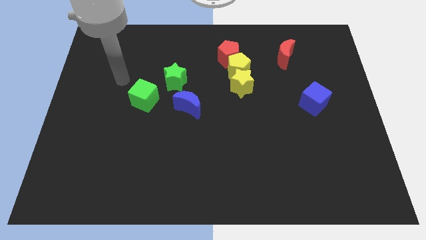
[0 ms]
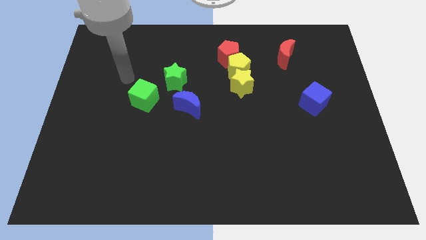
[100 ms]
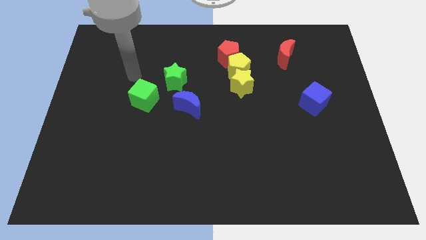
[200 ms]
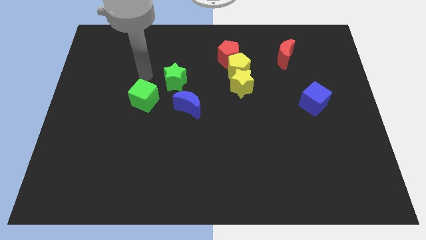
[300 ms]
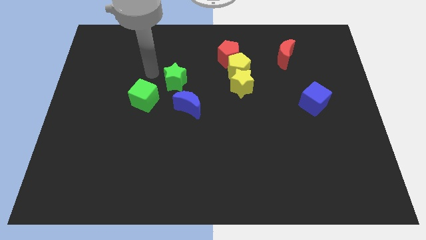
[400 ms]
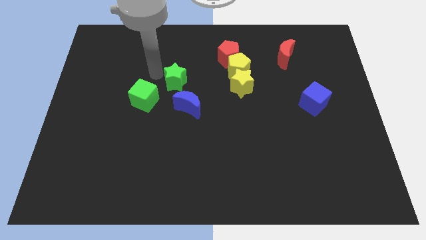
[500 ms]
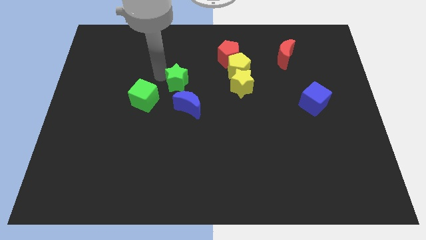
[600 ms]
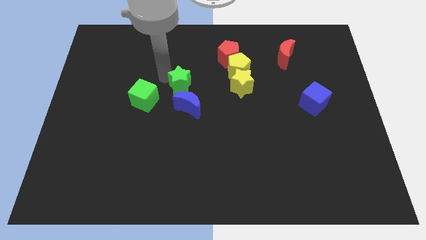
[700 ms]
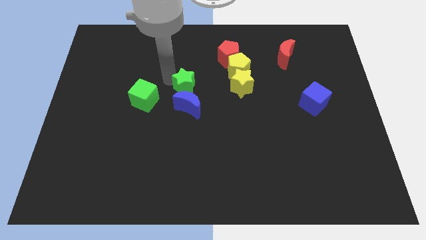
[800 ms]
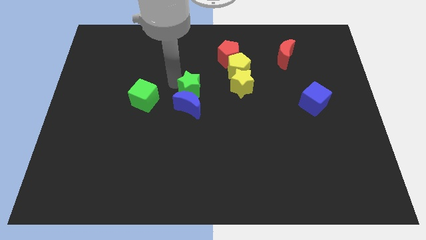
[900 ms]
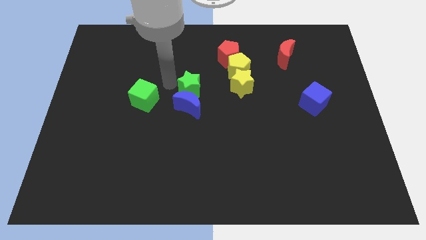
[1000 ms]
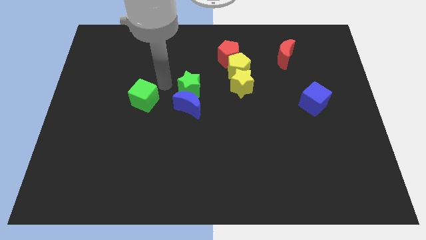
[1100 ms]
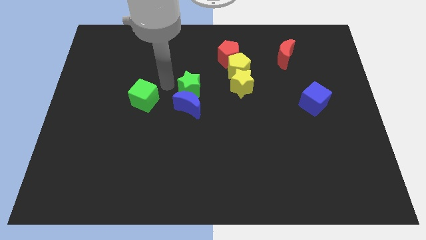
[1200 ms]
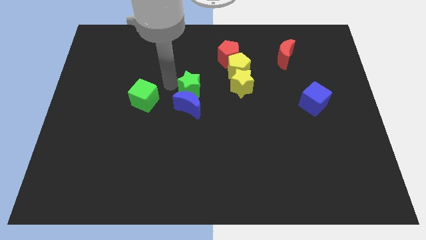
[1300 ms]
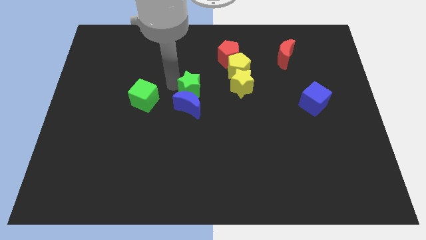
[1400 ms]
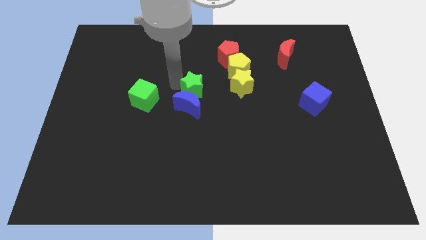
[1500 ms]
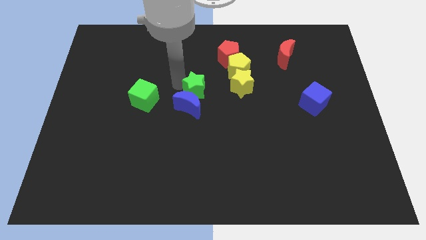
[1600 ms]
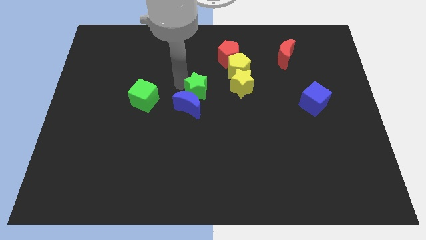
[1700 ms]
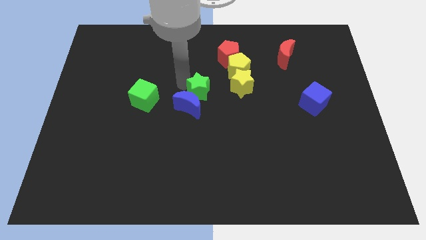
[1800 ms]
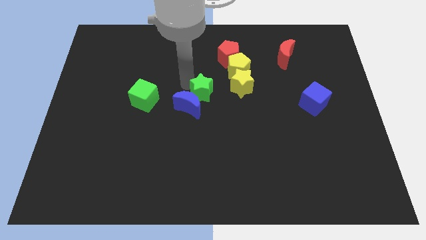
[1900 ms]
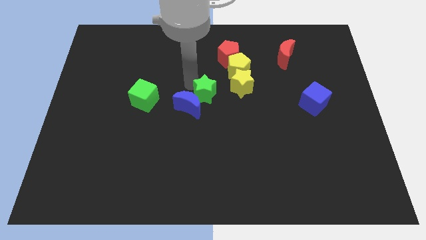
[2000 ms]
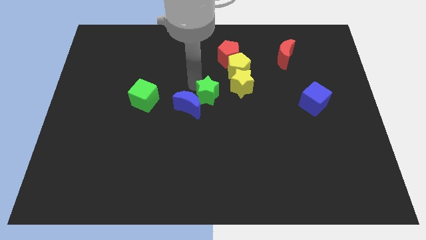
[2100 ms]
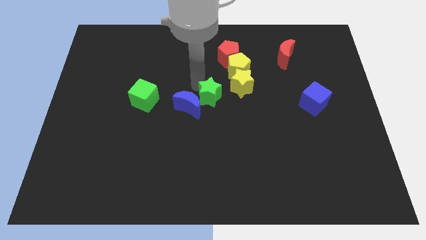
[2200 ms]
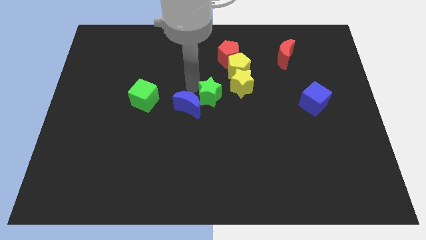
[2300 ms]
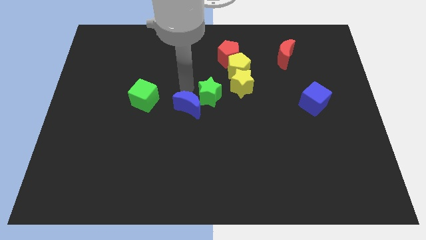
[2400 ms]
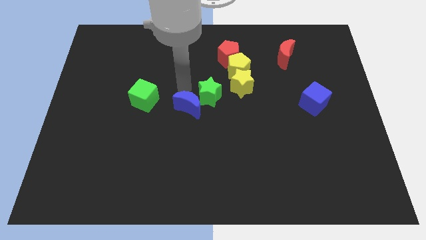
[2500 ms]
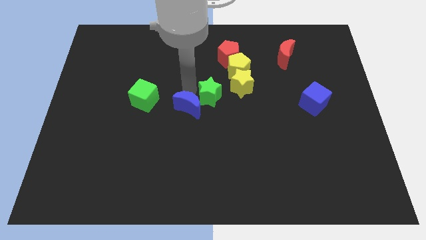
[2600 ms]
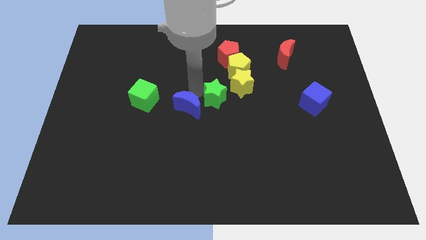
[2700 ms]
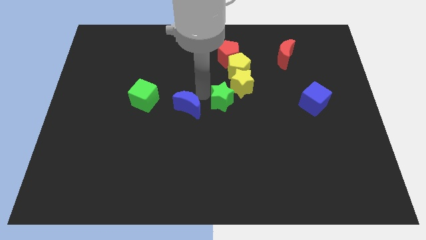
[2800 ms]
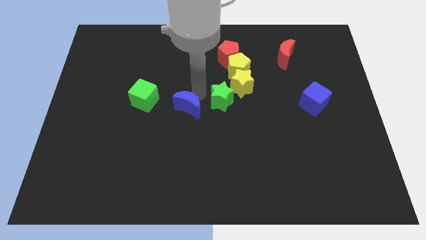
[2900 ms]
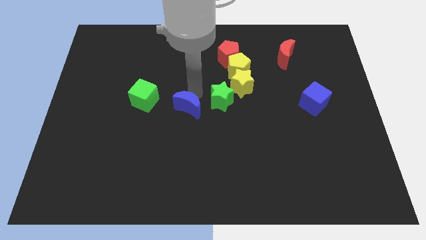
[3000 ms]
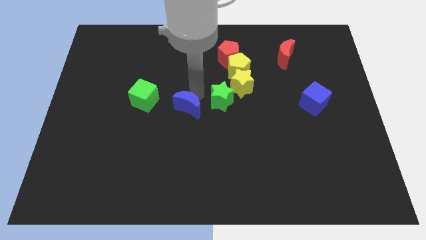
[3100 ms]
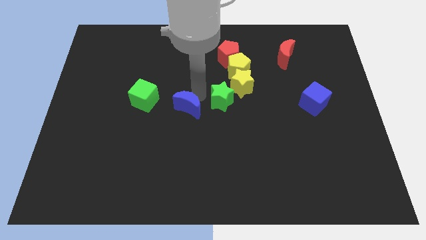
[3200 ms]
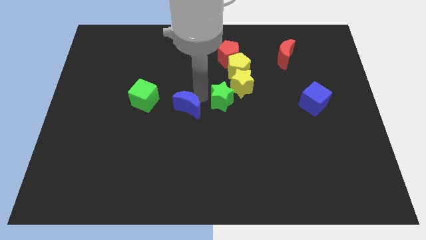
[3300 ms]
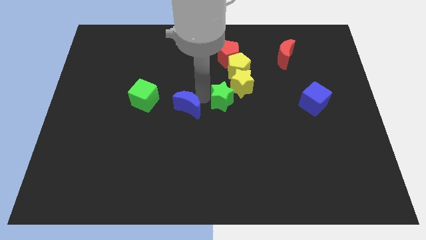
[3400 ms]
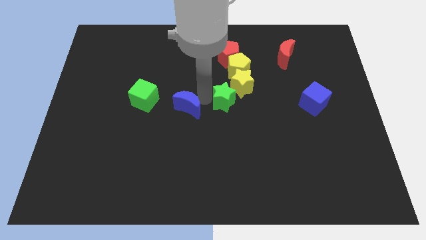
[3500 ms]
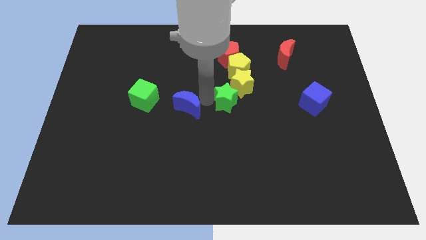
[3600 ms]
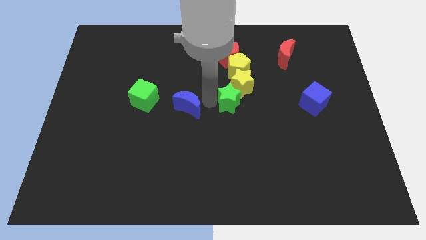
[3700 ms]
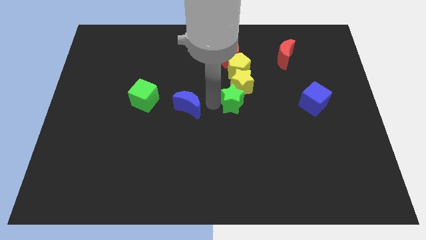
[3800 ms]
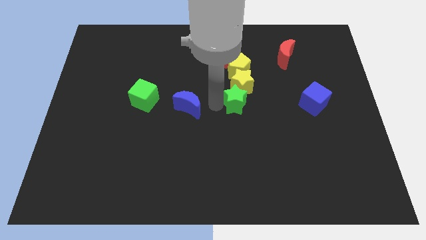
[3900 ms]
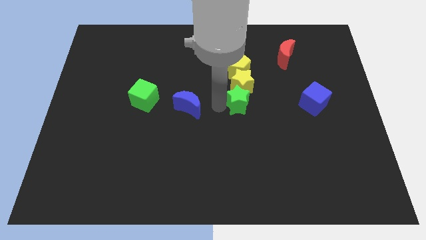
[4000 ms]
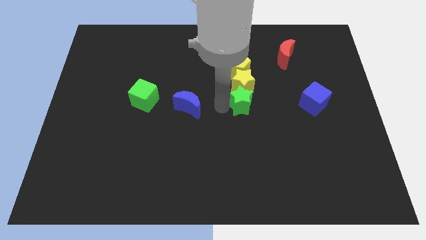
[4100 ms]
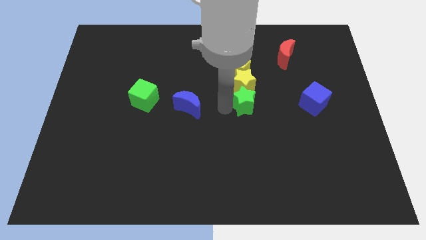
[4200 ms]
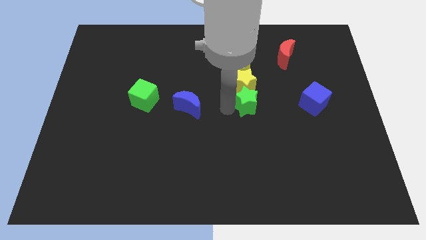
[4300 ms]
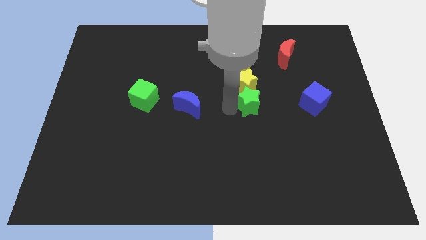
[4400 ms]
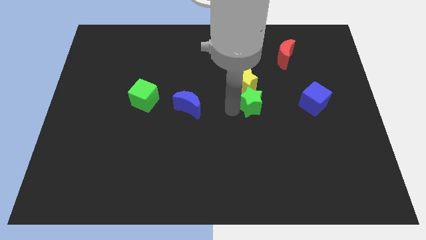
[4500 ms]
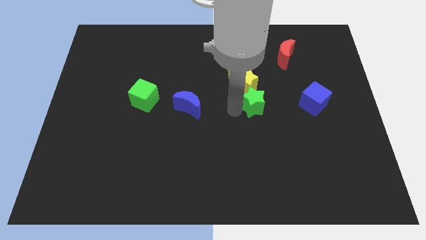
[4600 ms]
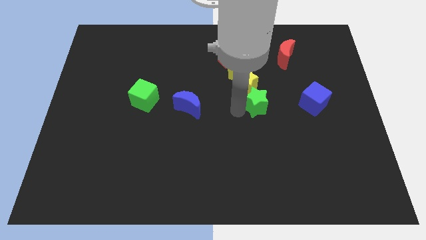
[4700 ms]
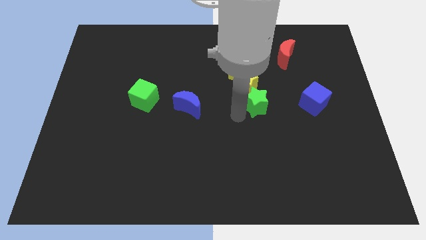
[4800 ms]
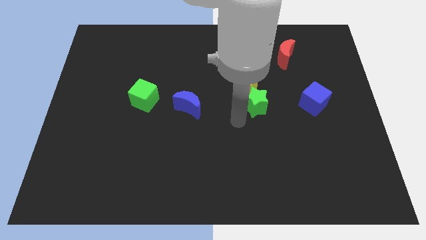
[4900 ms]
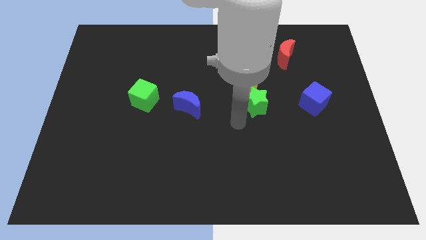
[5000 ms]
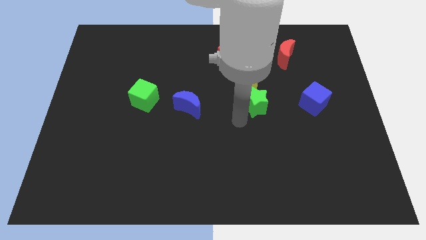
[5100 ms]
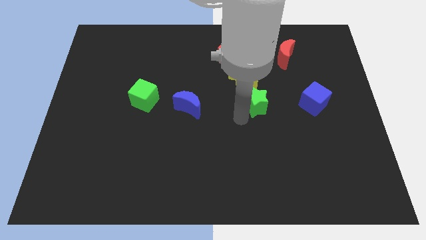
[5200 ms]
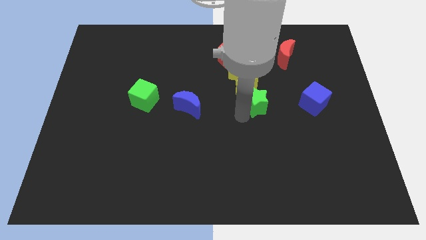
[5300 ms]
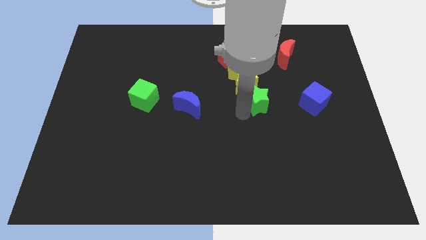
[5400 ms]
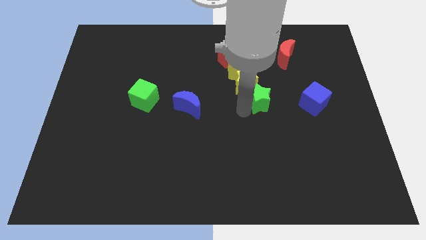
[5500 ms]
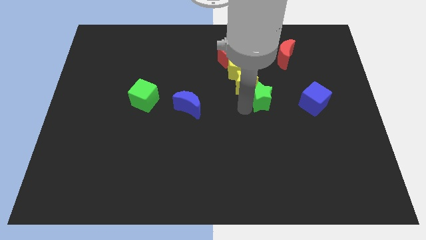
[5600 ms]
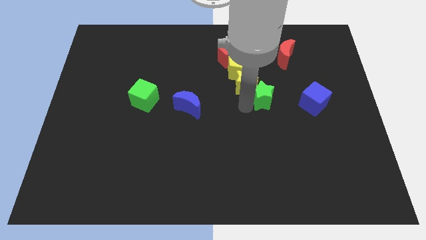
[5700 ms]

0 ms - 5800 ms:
push the green star to the right

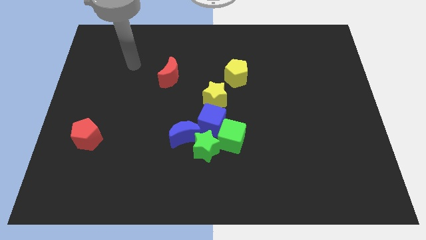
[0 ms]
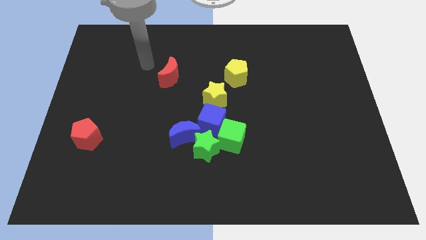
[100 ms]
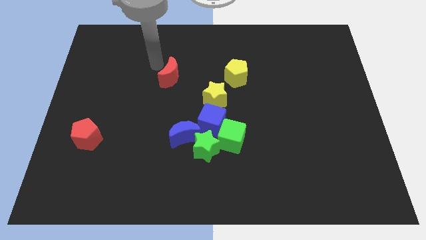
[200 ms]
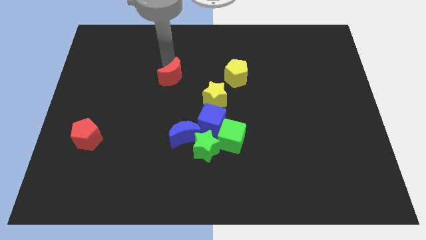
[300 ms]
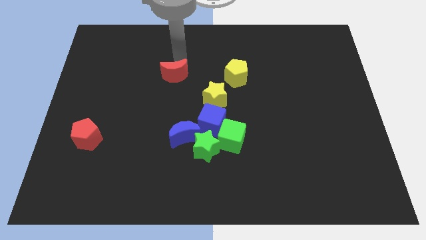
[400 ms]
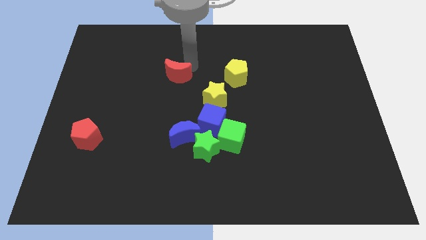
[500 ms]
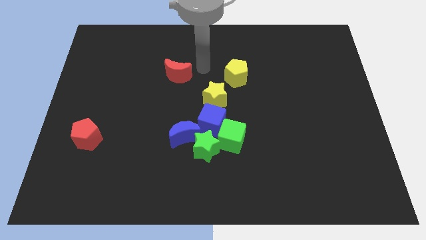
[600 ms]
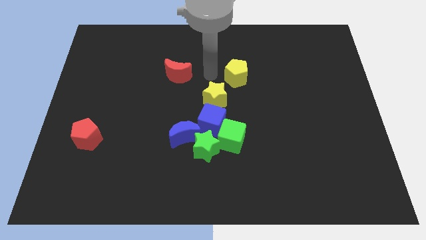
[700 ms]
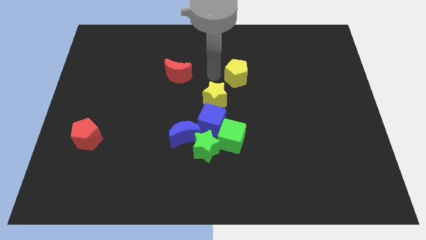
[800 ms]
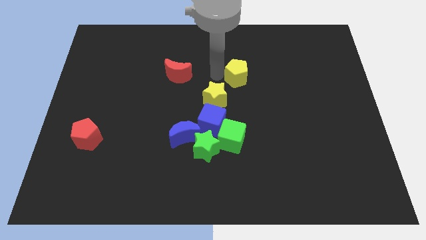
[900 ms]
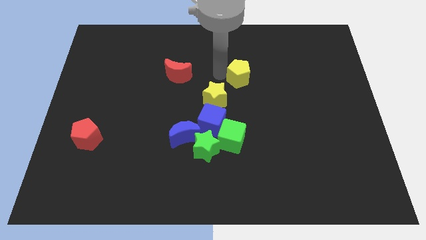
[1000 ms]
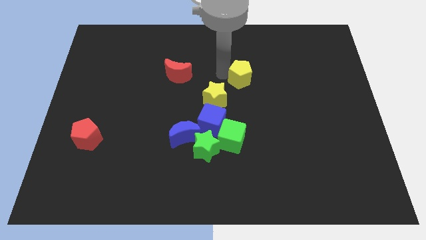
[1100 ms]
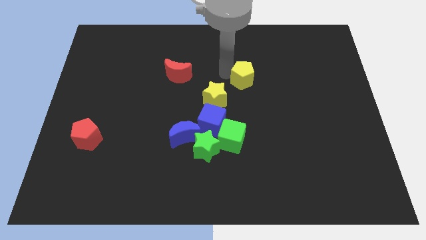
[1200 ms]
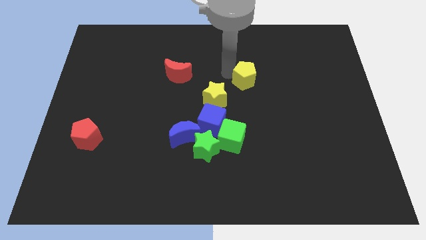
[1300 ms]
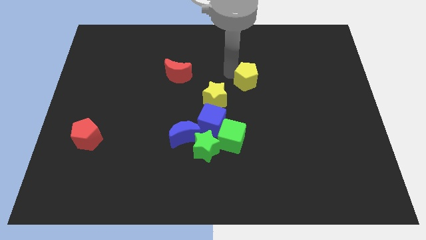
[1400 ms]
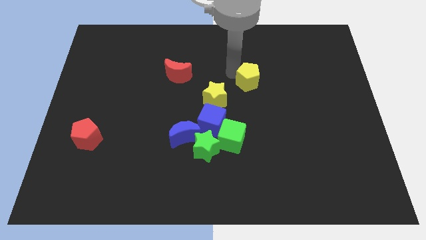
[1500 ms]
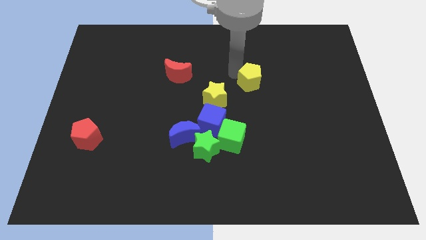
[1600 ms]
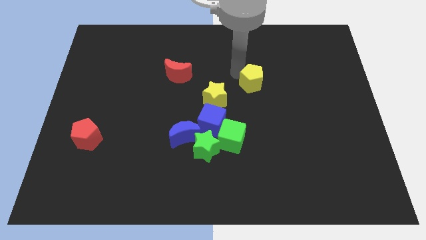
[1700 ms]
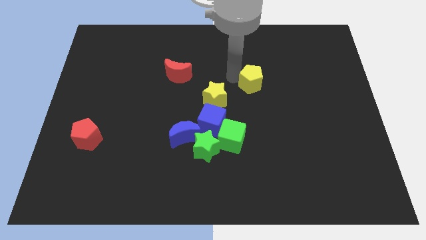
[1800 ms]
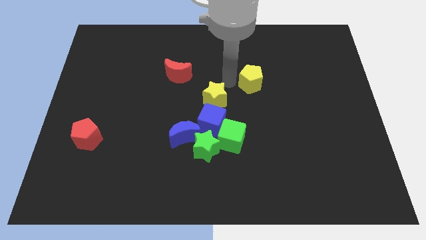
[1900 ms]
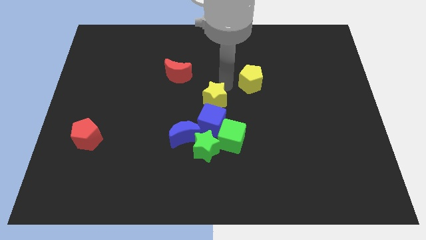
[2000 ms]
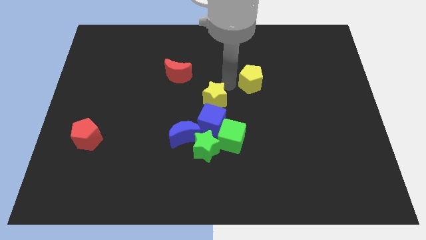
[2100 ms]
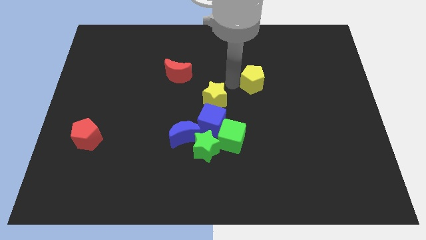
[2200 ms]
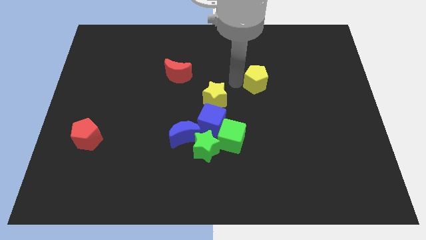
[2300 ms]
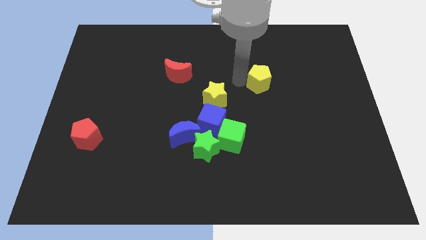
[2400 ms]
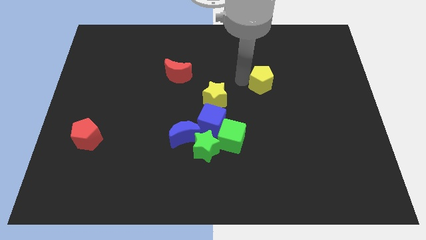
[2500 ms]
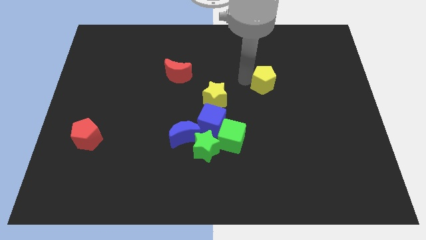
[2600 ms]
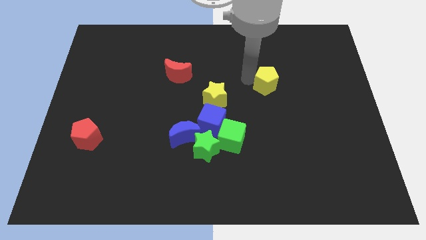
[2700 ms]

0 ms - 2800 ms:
slide the yellow pentagon a little bit right
